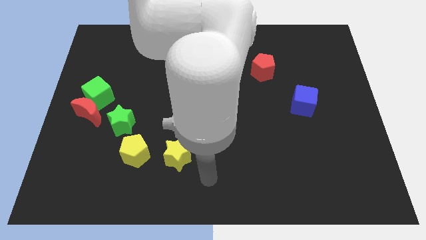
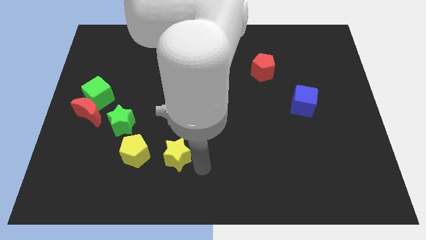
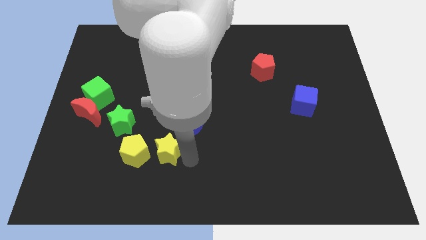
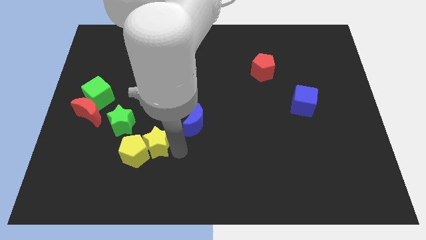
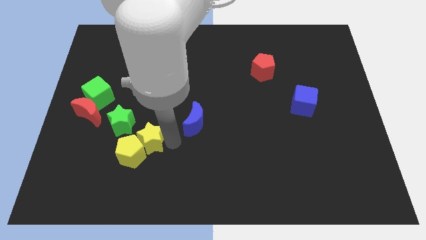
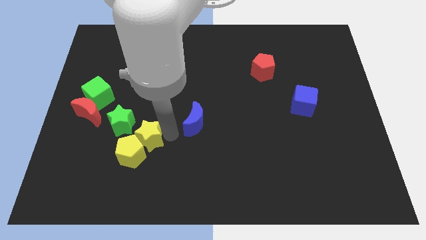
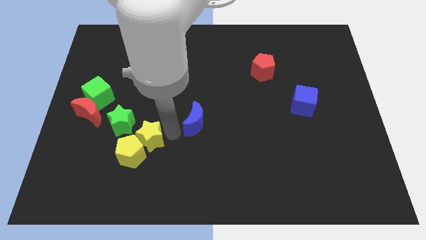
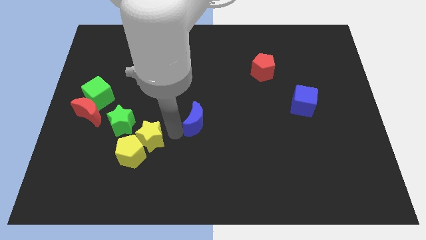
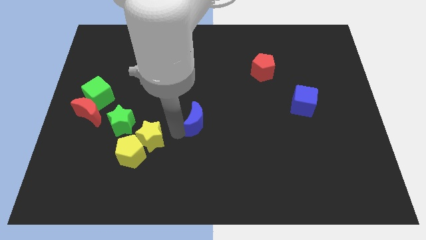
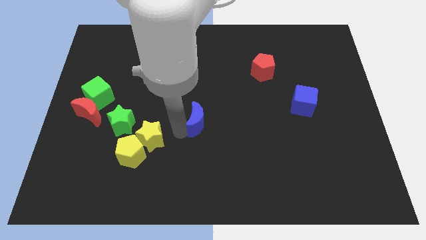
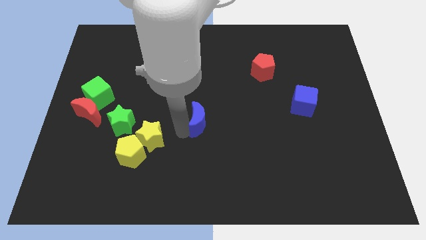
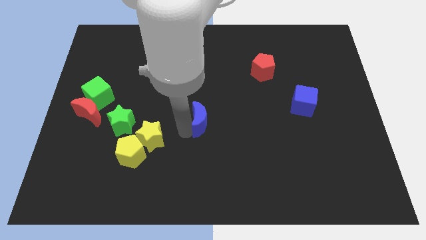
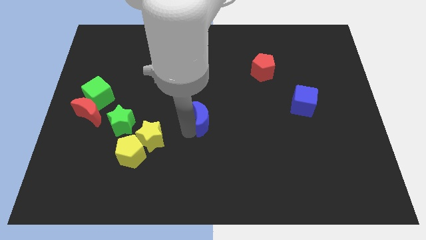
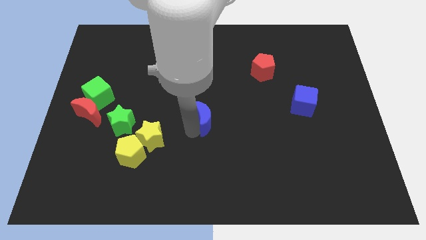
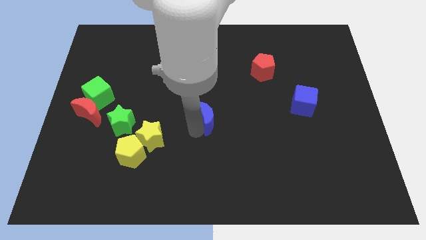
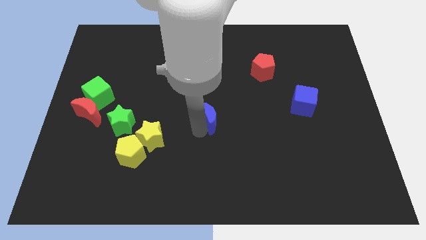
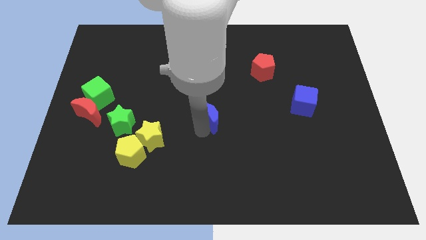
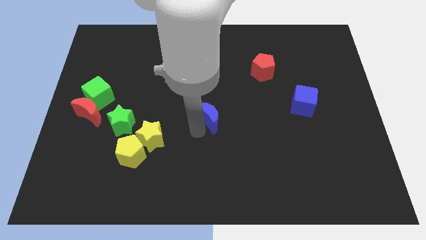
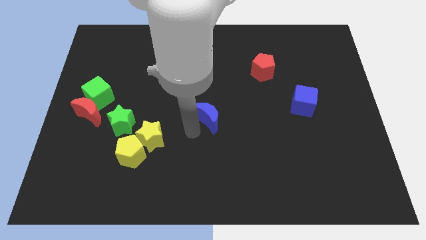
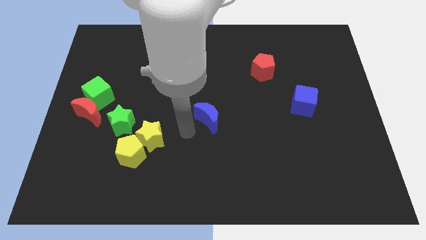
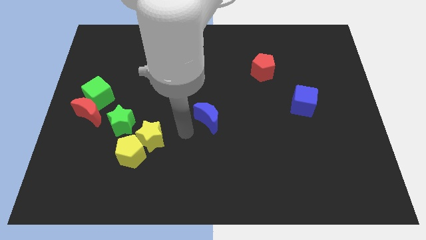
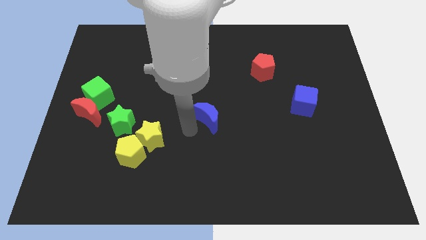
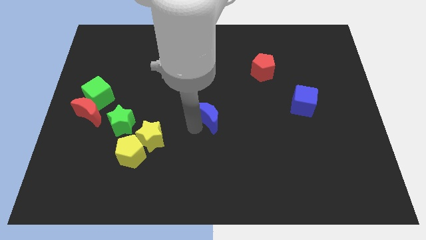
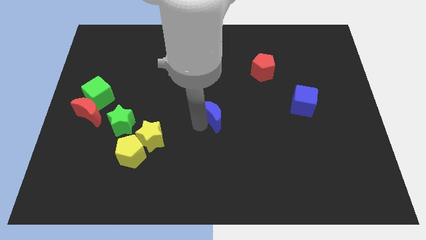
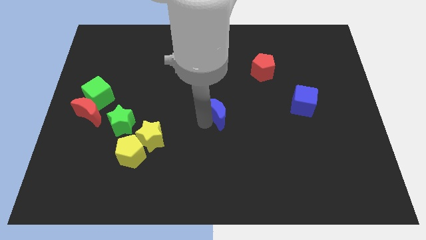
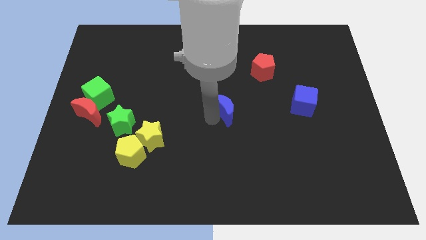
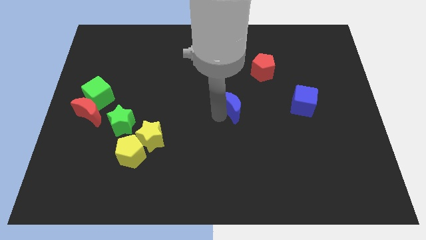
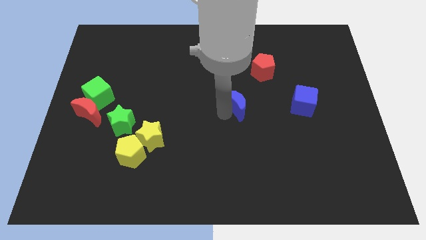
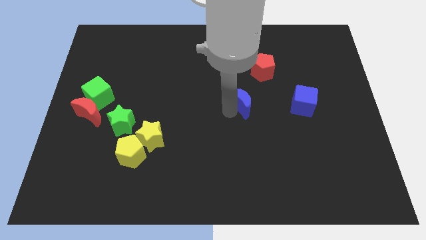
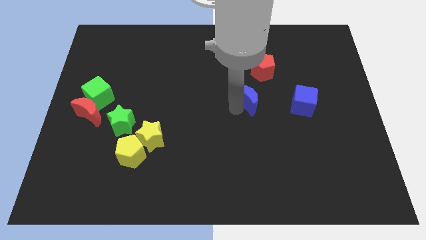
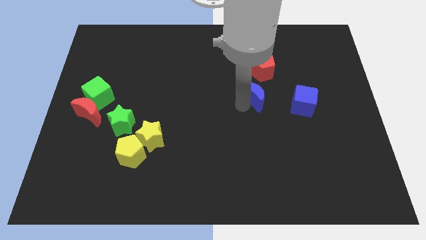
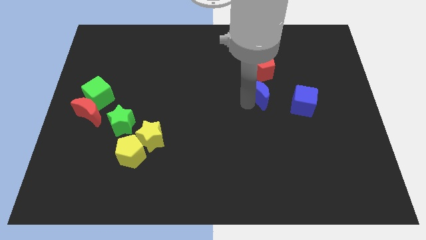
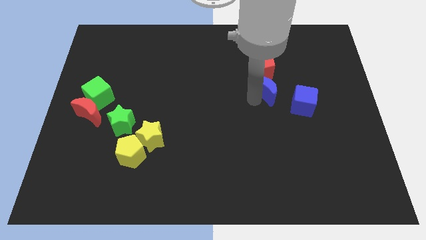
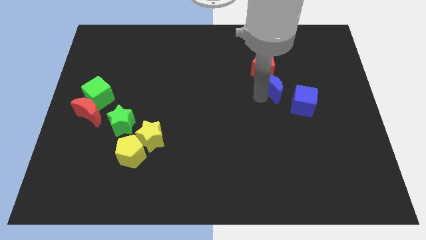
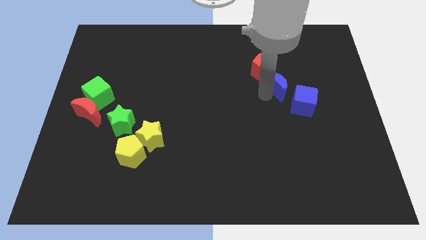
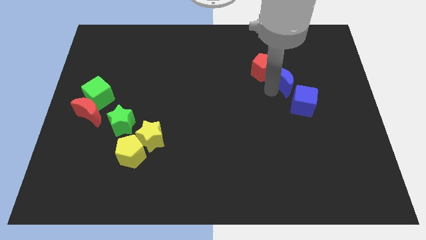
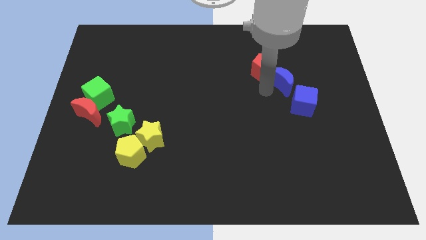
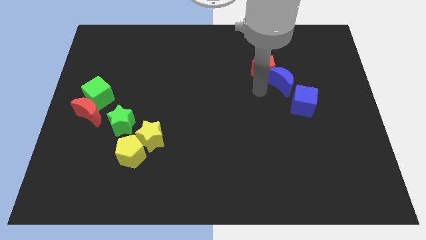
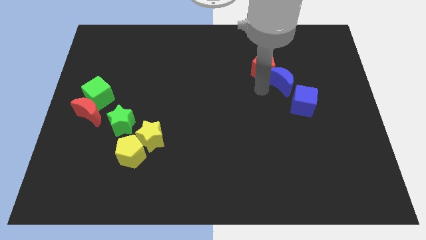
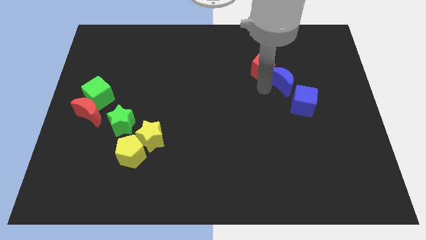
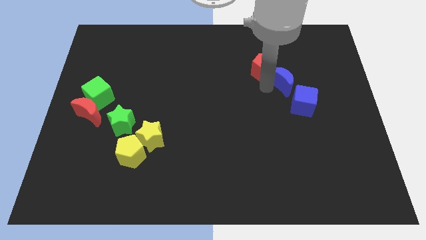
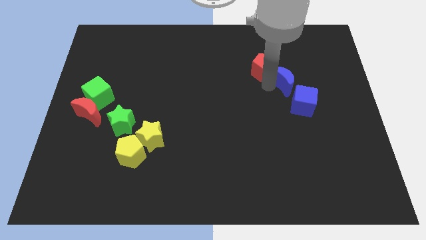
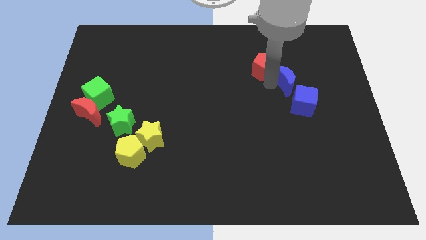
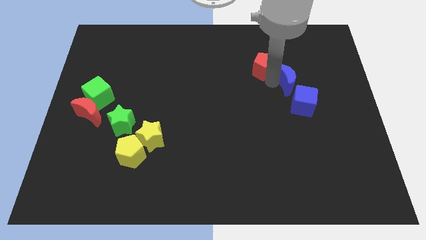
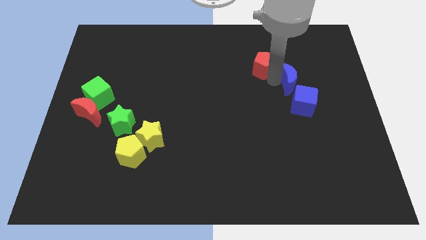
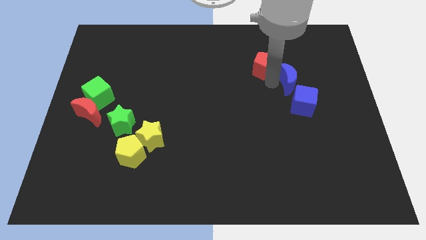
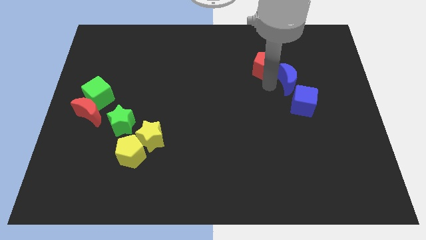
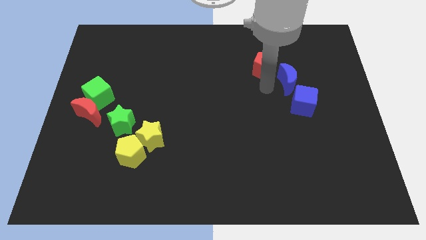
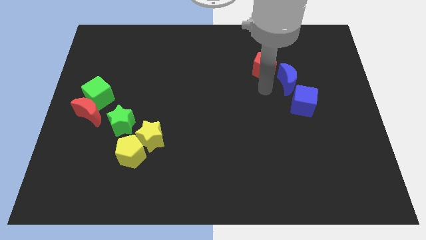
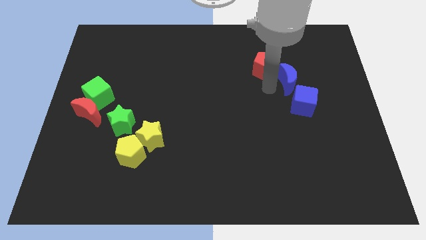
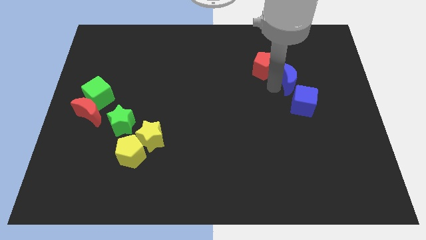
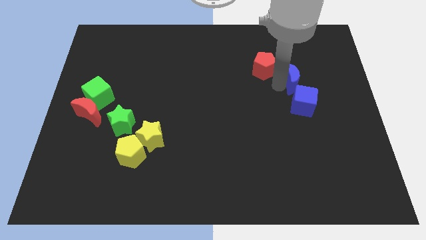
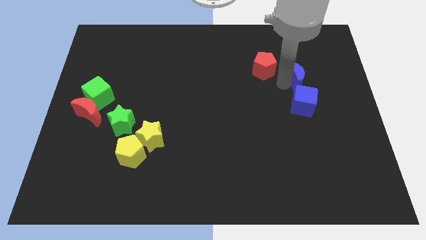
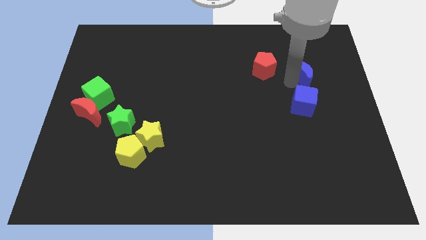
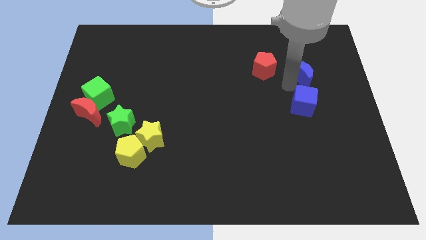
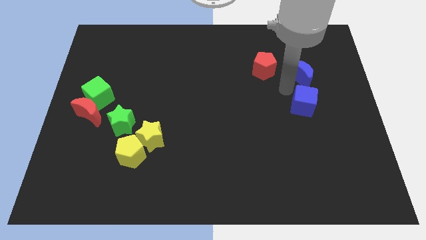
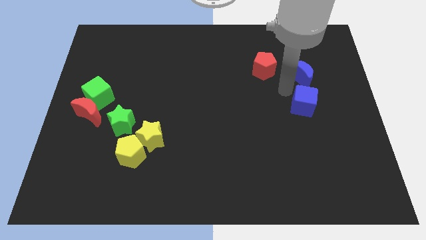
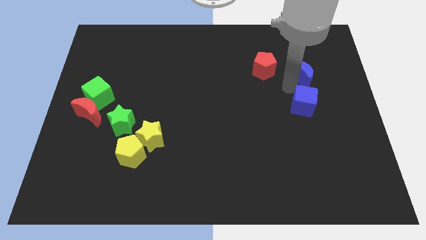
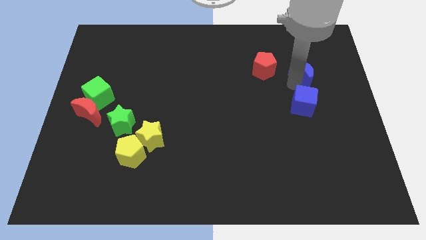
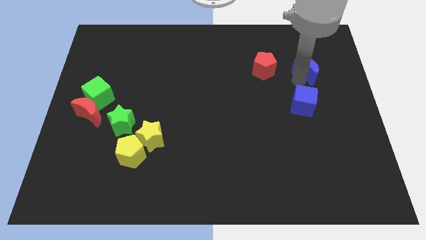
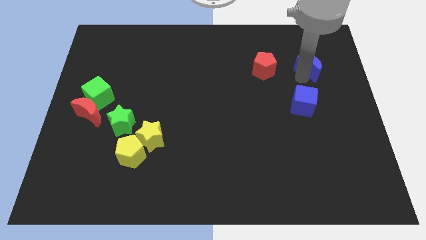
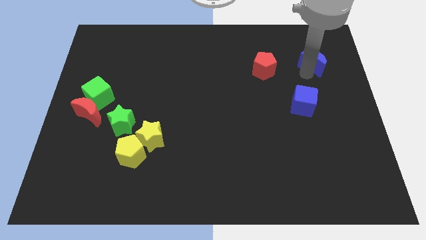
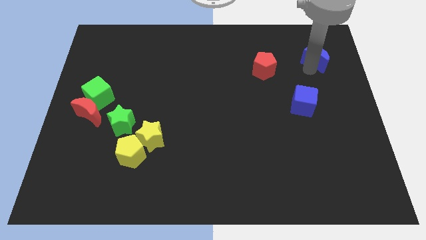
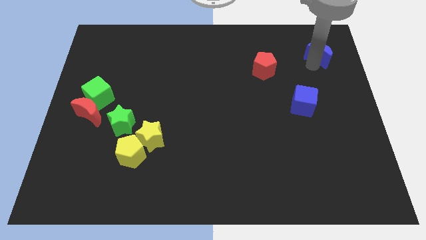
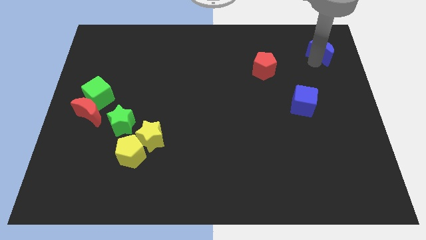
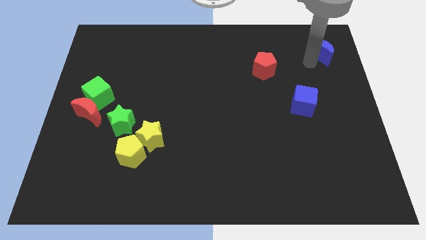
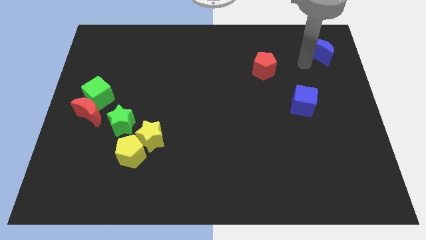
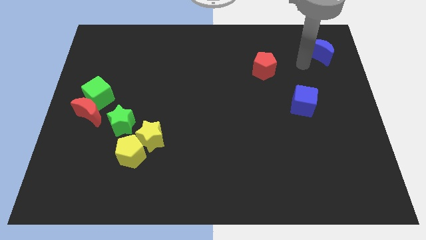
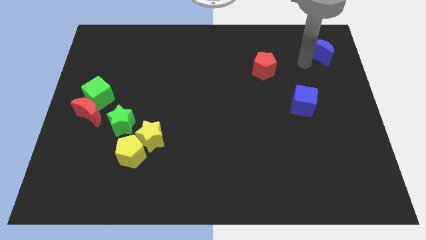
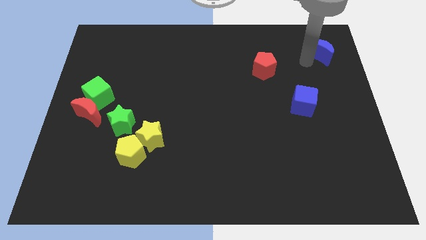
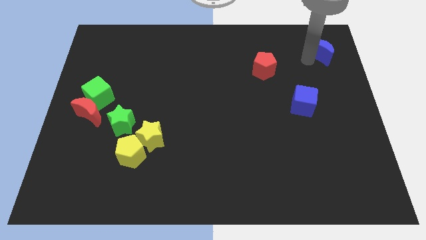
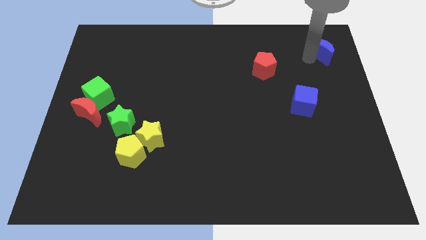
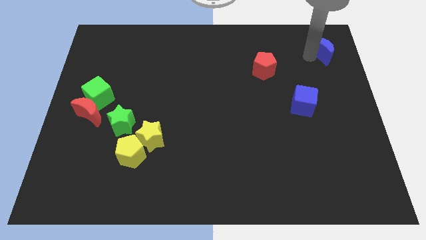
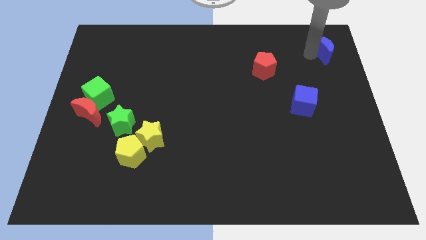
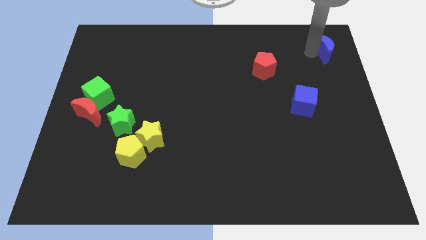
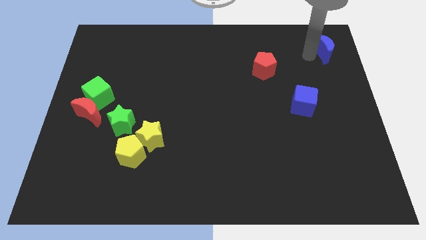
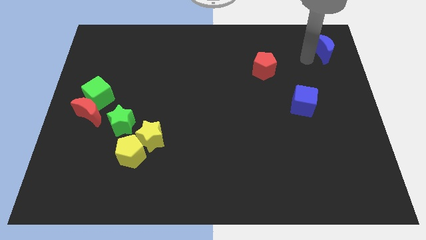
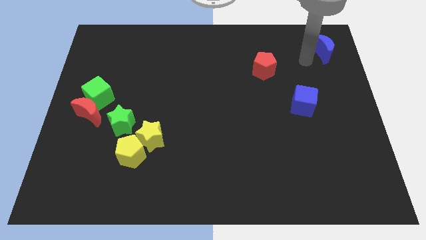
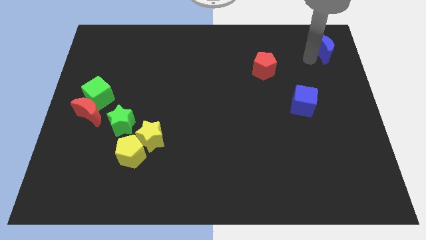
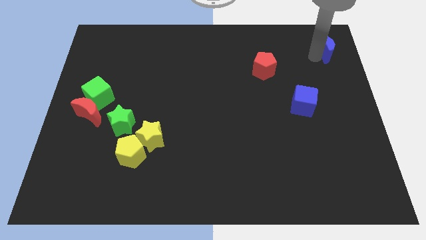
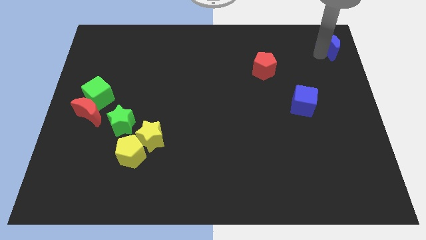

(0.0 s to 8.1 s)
push the blue moon to the top right
